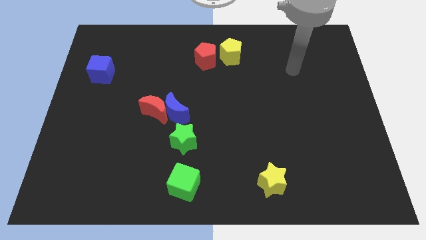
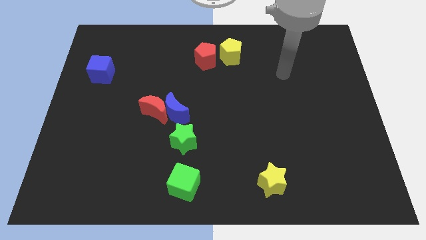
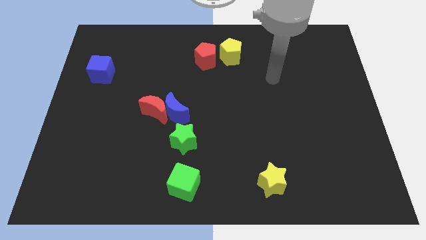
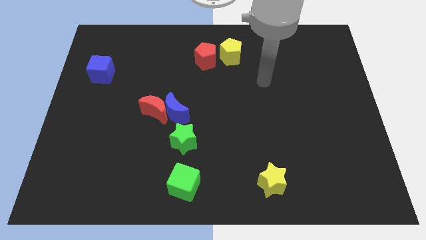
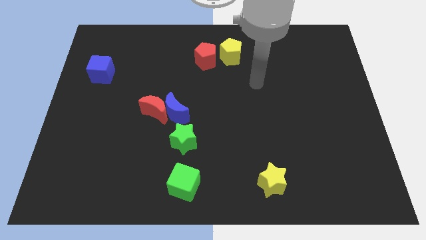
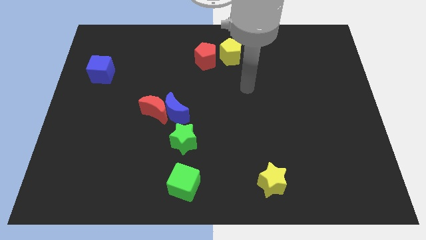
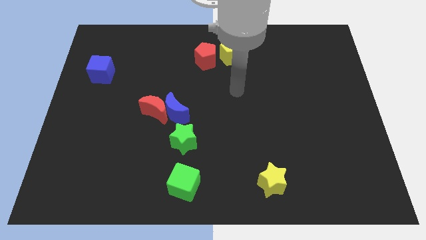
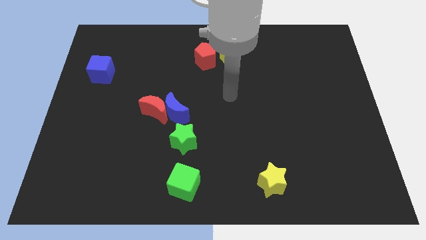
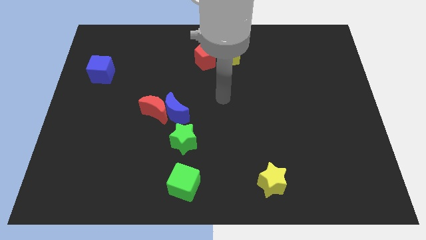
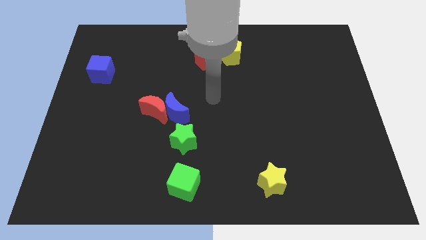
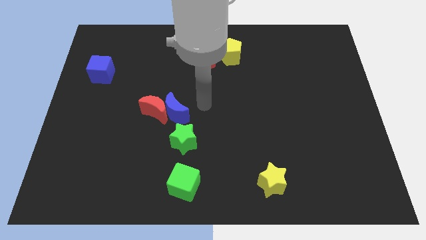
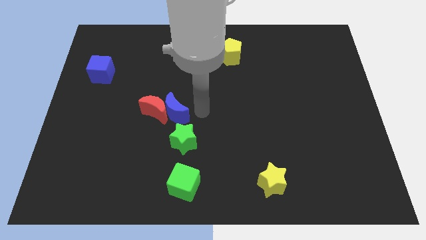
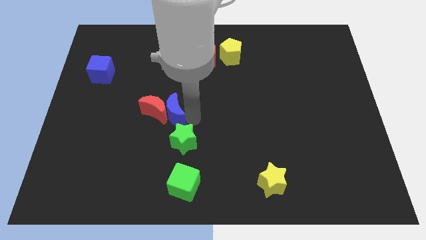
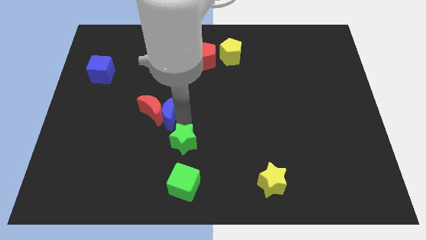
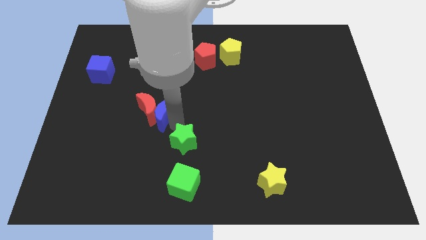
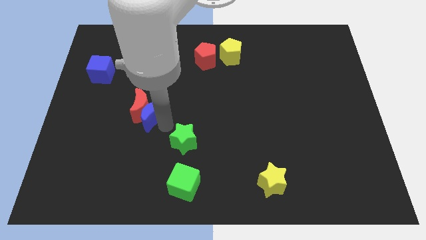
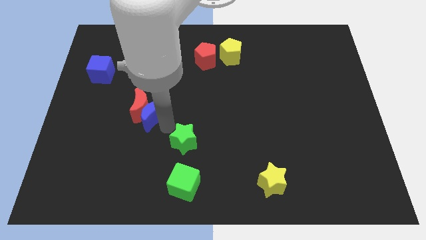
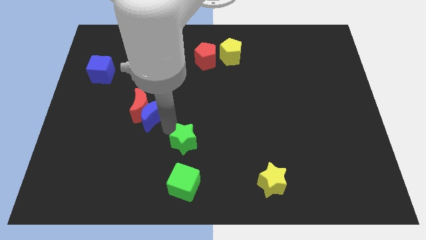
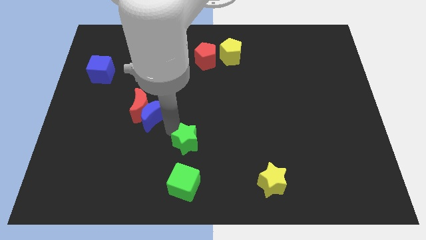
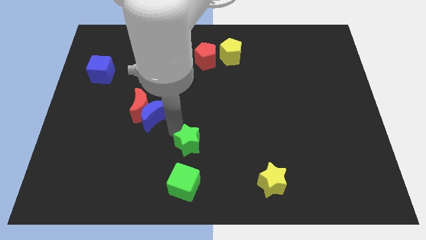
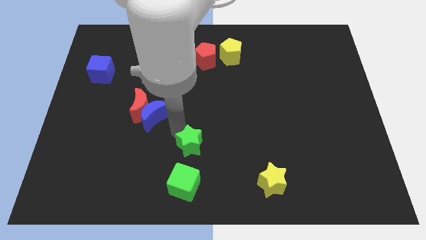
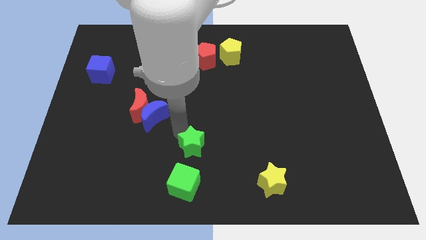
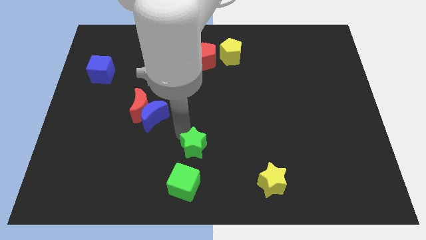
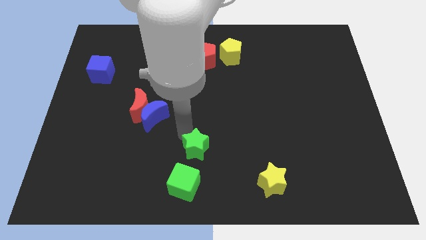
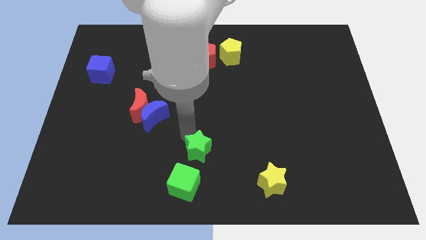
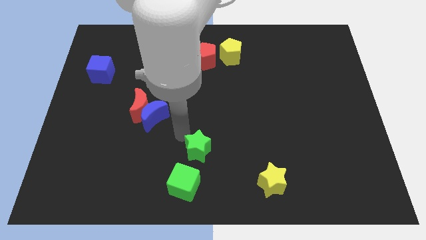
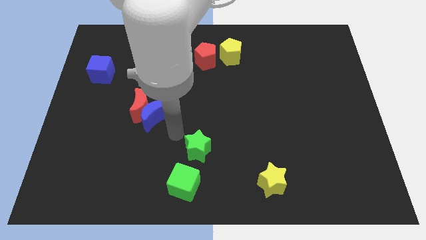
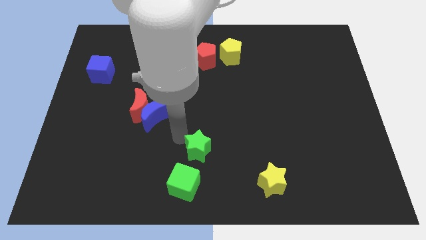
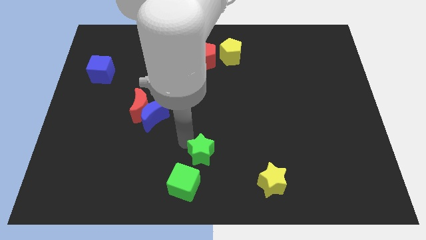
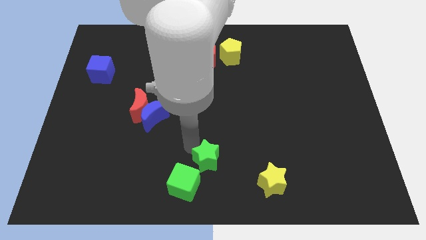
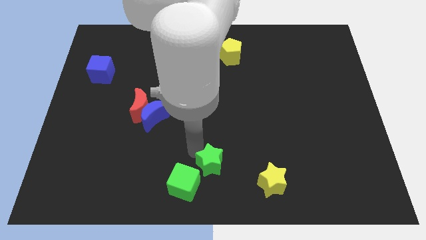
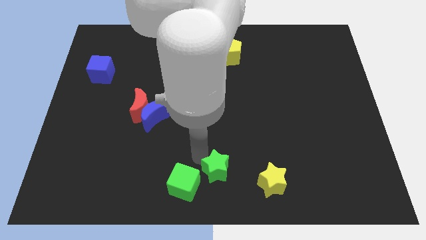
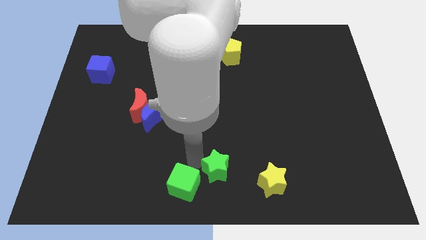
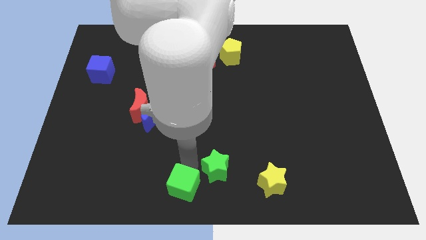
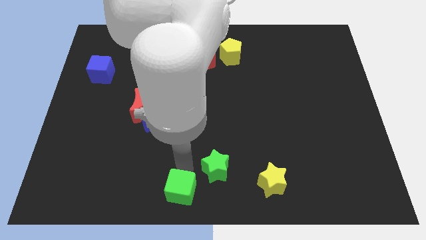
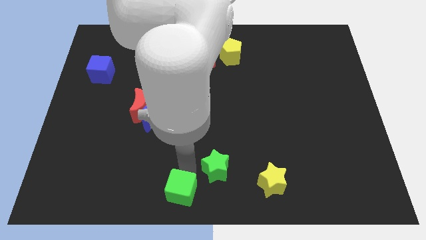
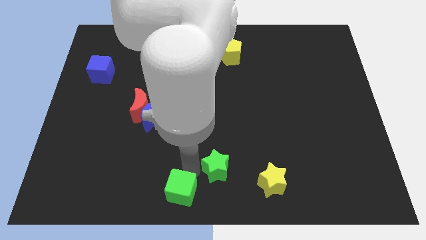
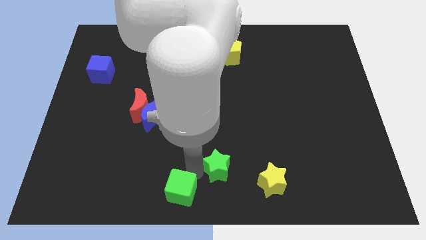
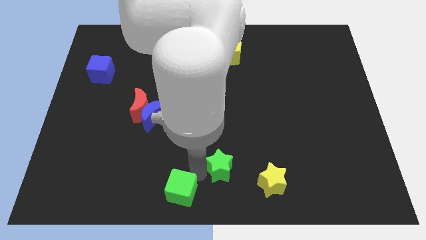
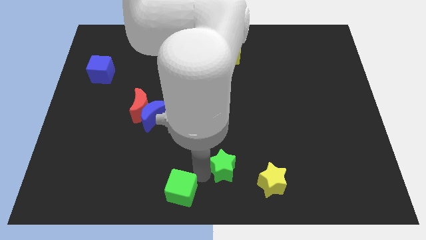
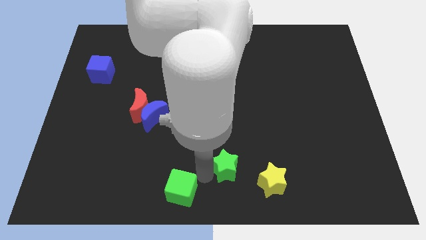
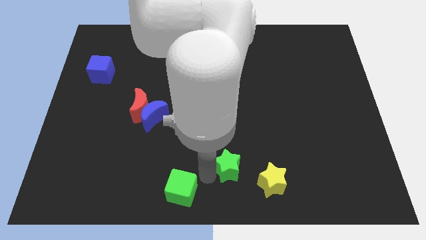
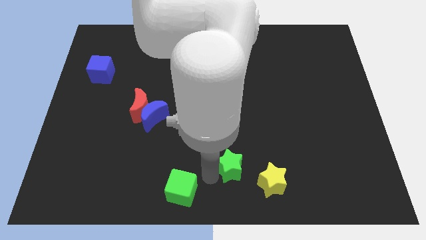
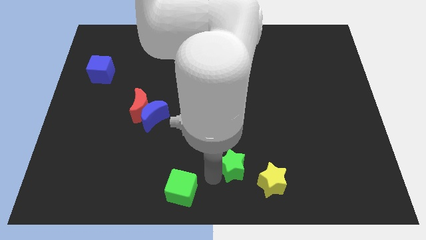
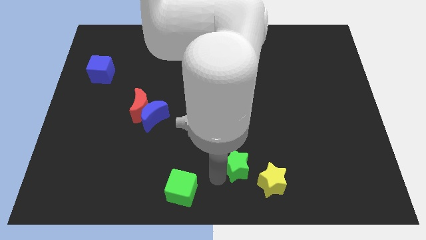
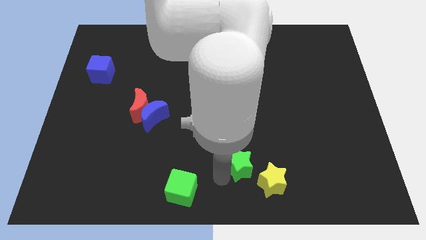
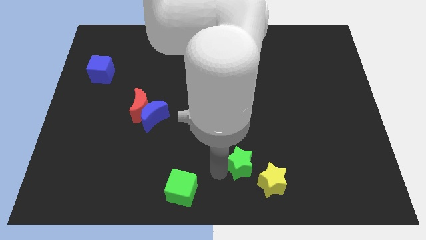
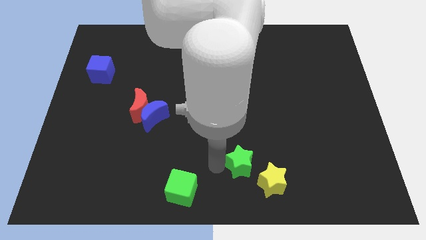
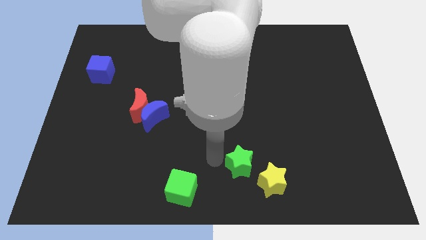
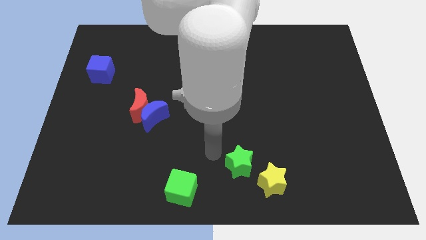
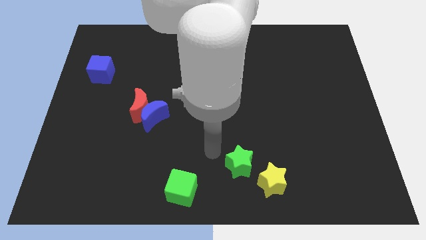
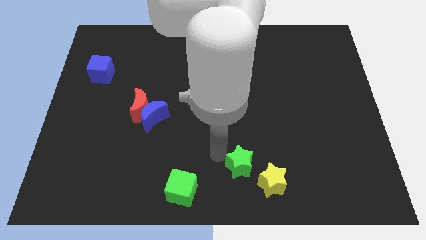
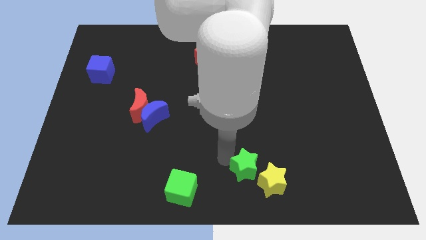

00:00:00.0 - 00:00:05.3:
put the green star to the yellow star

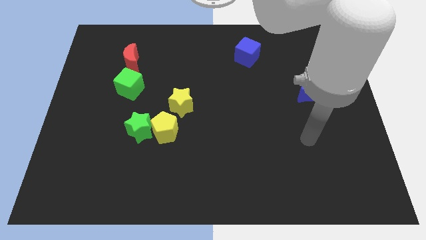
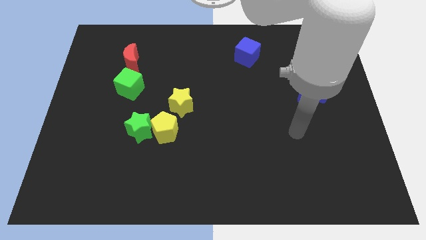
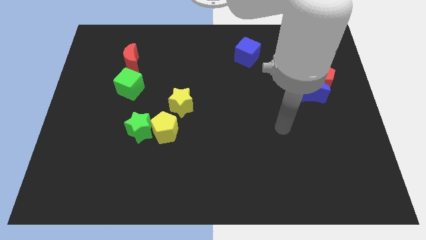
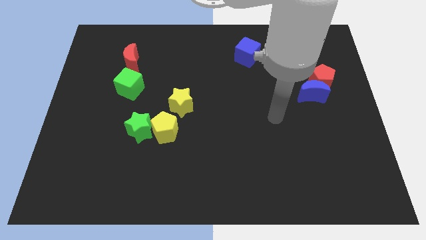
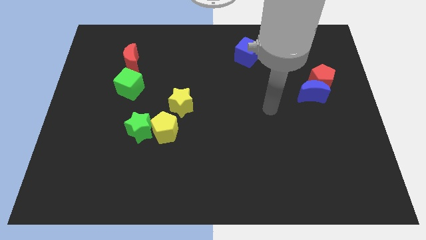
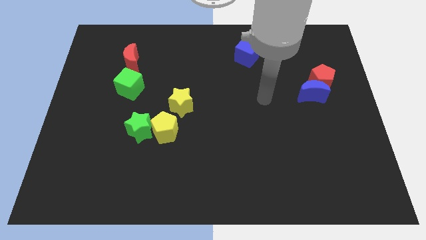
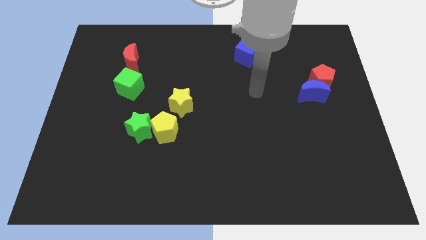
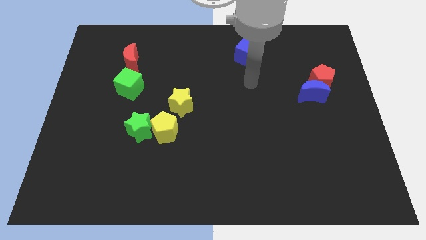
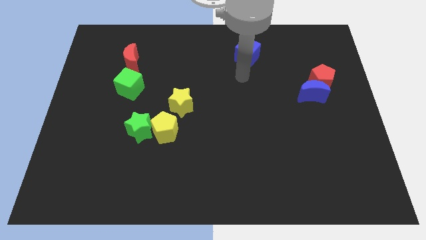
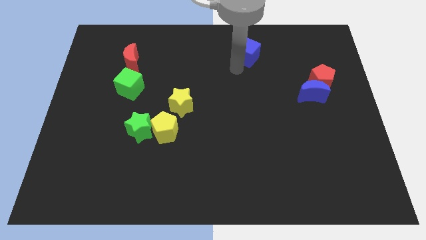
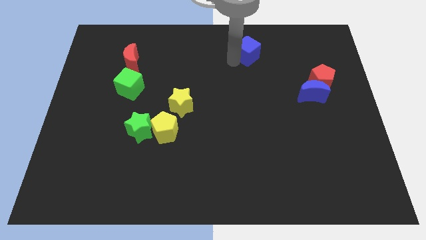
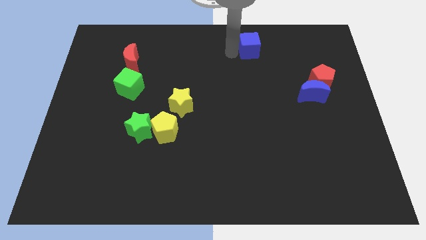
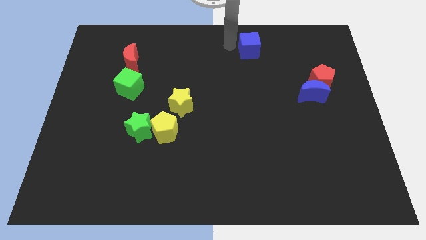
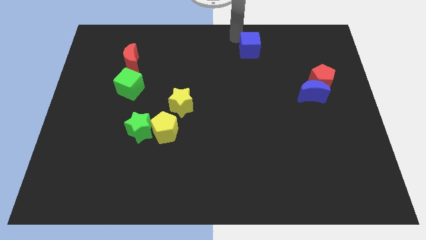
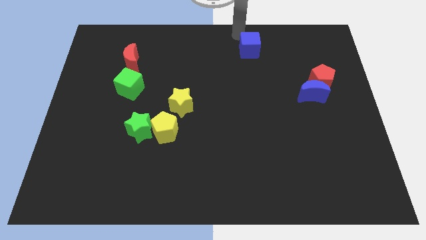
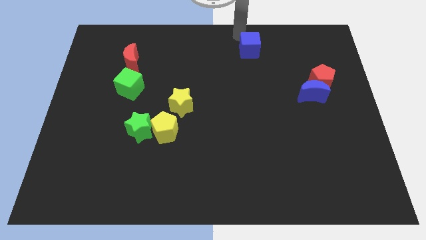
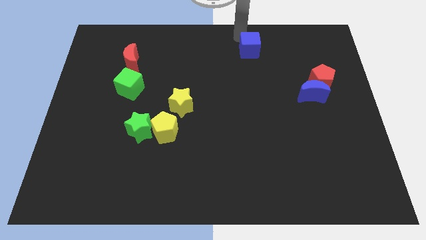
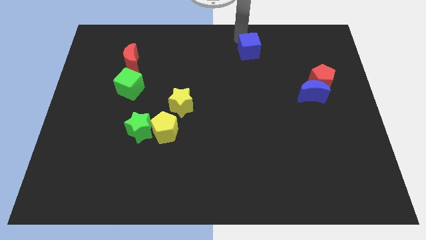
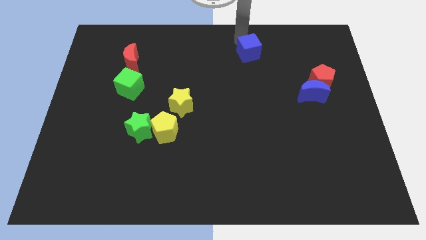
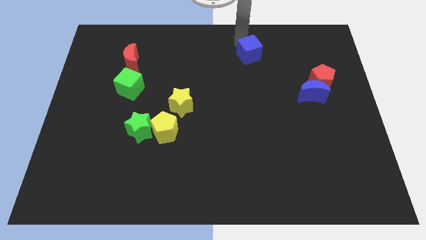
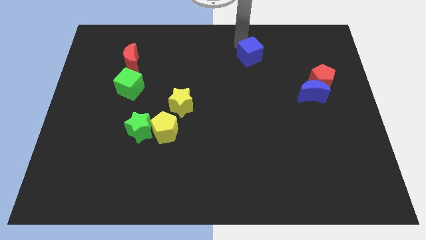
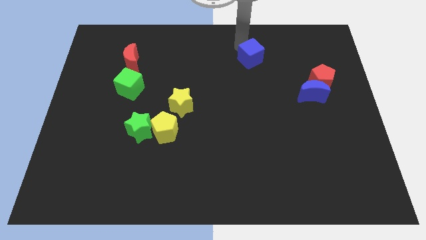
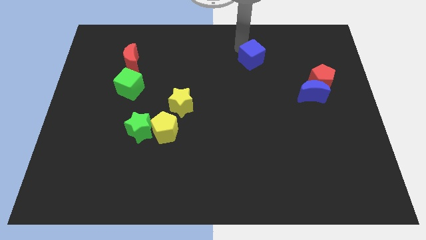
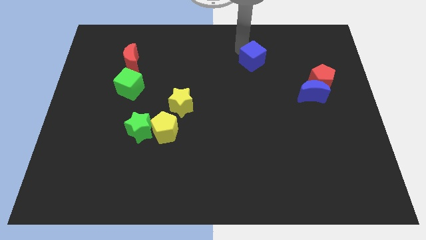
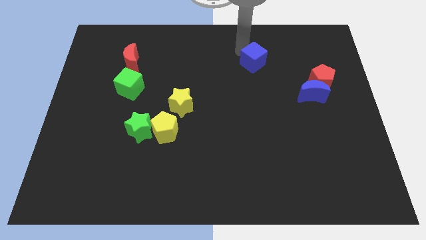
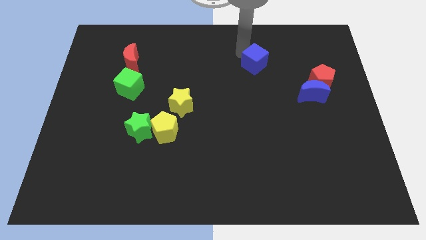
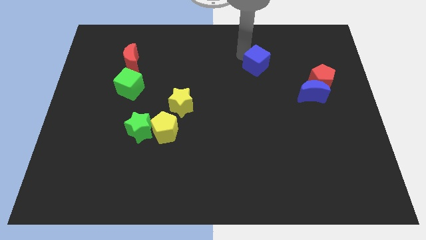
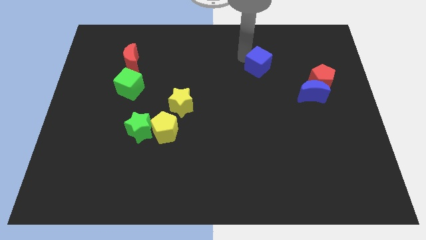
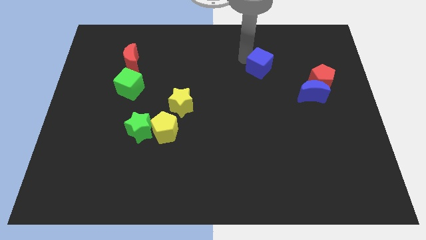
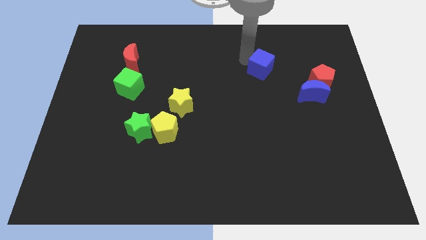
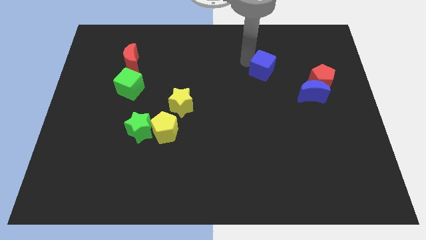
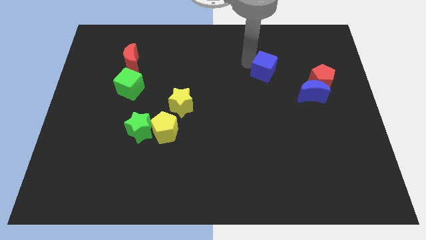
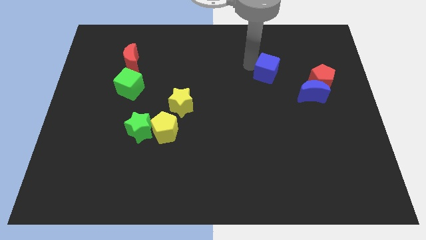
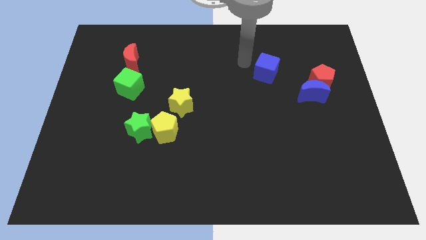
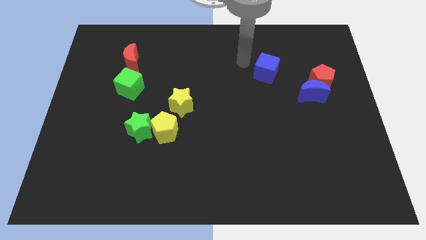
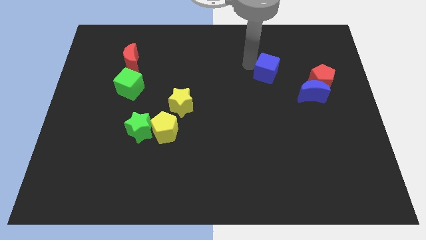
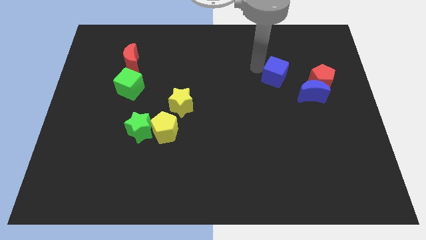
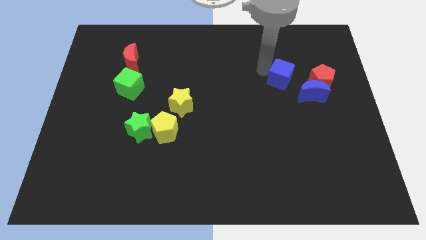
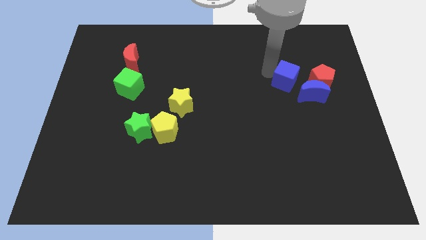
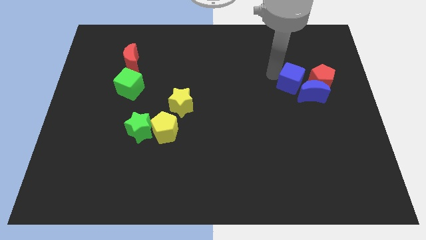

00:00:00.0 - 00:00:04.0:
slide the blue cube close to the blue moon
